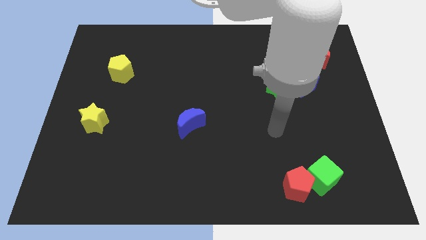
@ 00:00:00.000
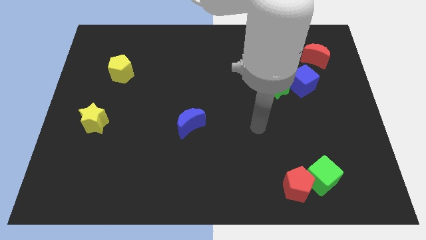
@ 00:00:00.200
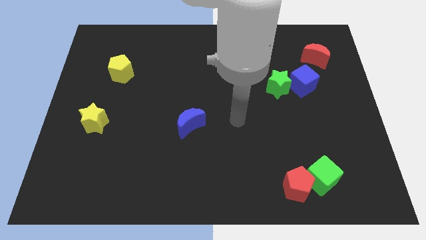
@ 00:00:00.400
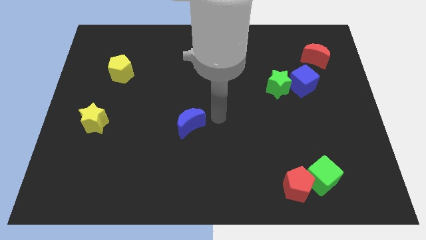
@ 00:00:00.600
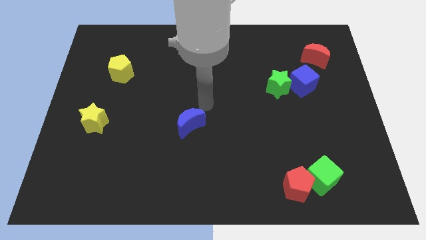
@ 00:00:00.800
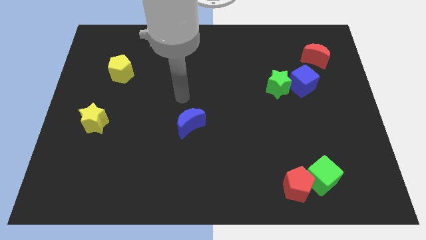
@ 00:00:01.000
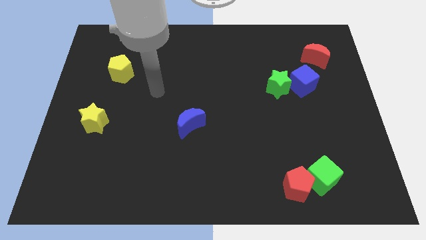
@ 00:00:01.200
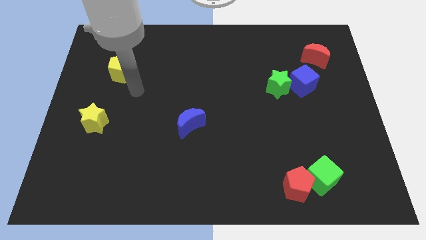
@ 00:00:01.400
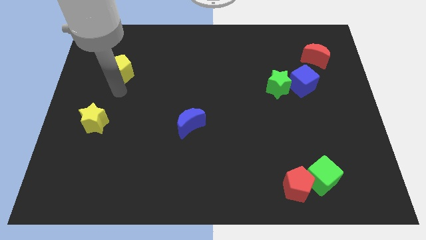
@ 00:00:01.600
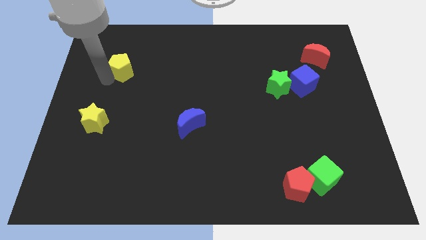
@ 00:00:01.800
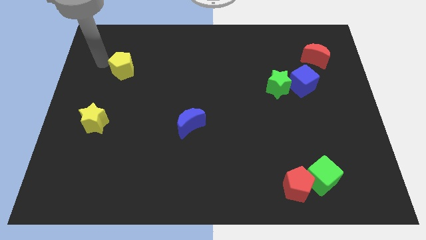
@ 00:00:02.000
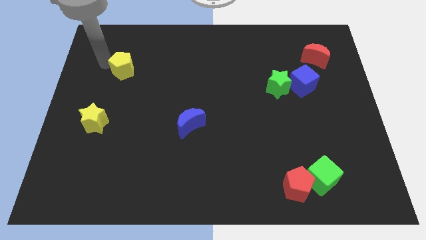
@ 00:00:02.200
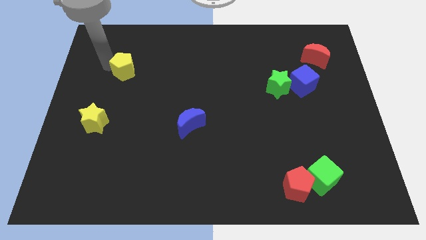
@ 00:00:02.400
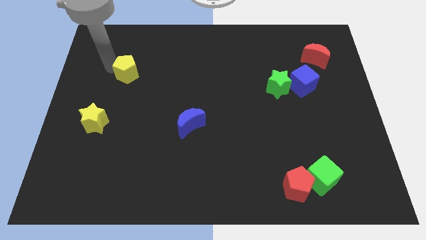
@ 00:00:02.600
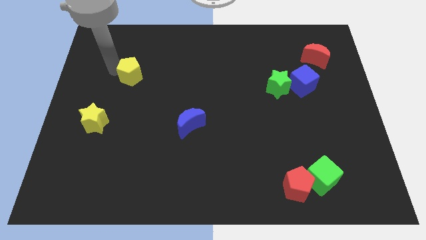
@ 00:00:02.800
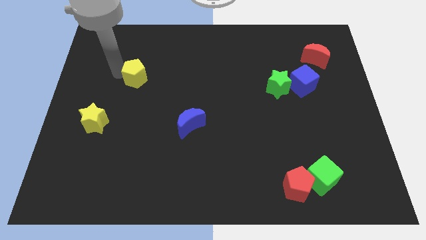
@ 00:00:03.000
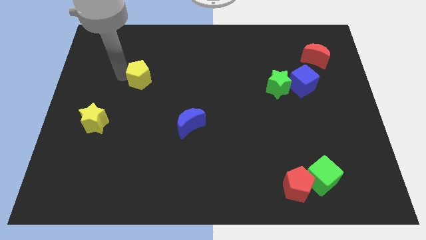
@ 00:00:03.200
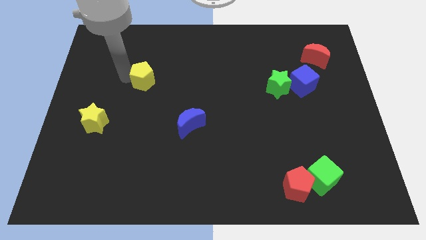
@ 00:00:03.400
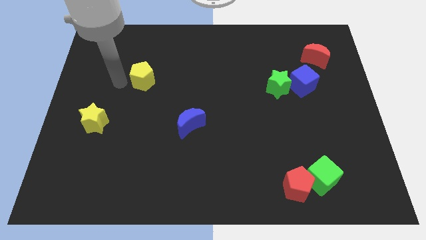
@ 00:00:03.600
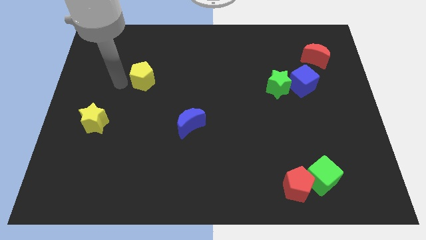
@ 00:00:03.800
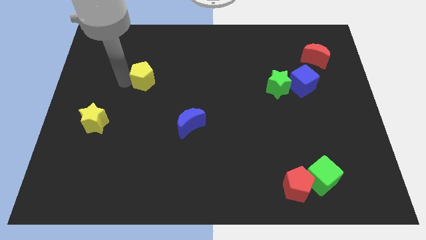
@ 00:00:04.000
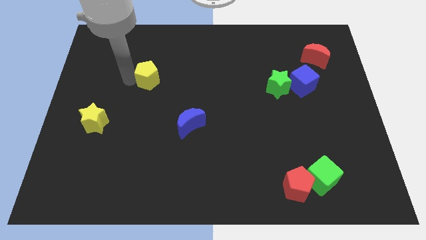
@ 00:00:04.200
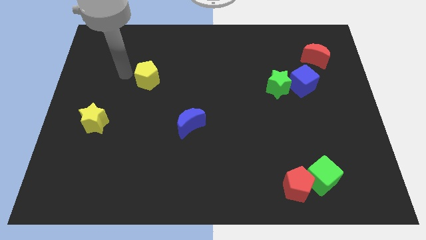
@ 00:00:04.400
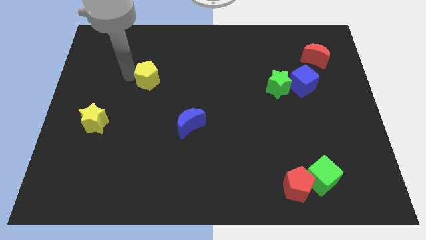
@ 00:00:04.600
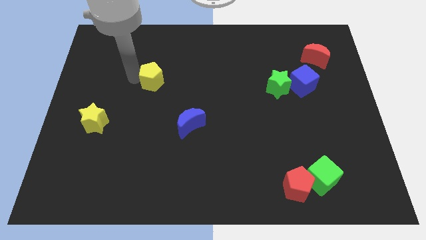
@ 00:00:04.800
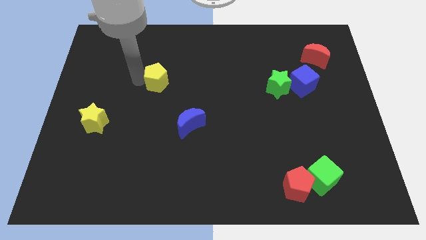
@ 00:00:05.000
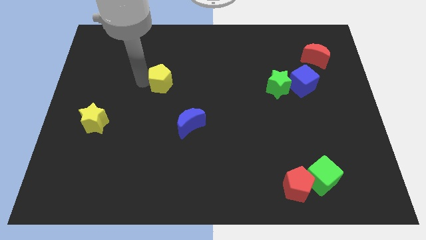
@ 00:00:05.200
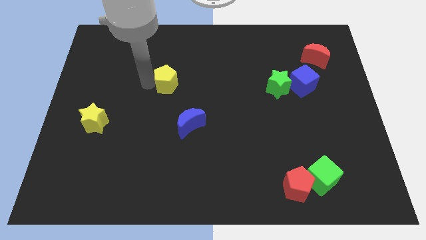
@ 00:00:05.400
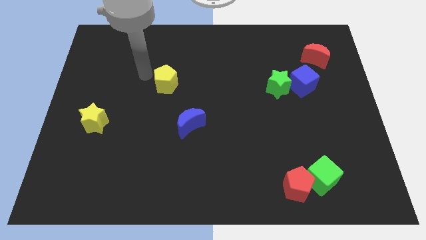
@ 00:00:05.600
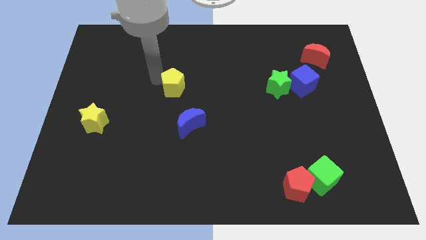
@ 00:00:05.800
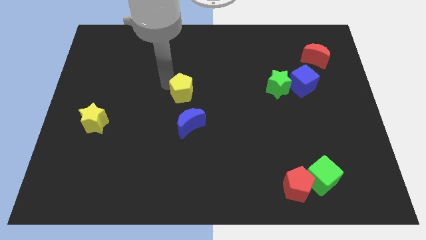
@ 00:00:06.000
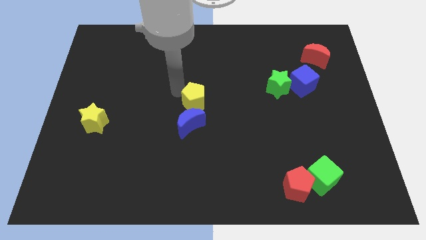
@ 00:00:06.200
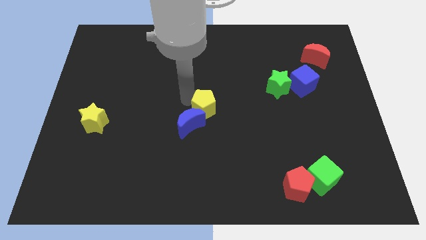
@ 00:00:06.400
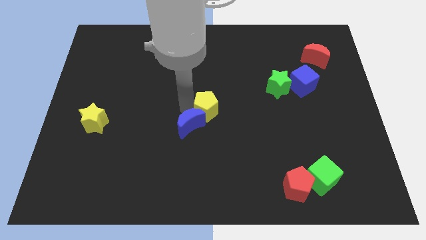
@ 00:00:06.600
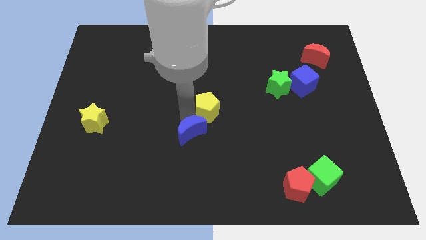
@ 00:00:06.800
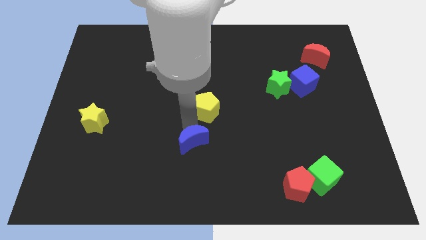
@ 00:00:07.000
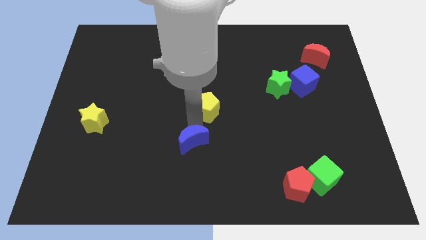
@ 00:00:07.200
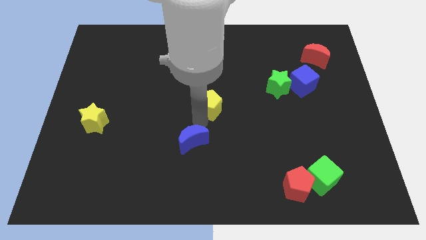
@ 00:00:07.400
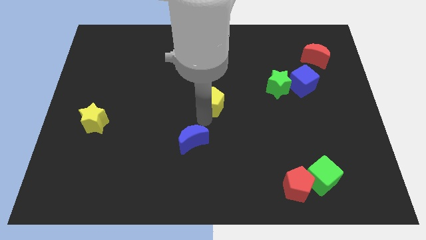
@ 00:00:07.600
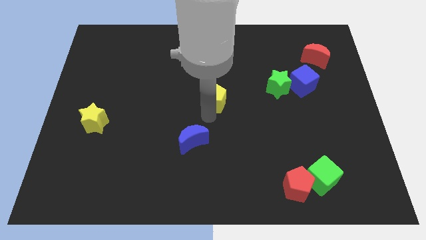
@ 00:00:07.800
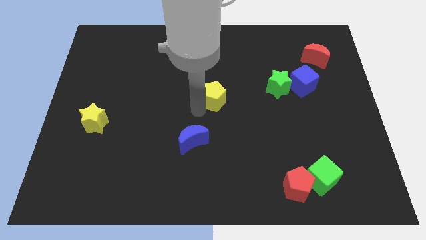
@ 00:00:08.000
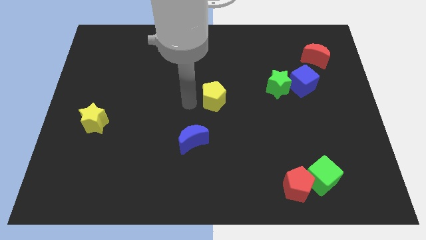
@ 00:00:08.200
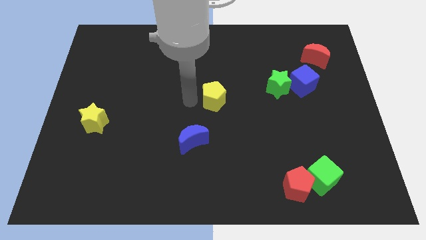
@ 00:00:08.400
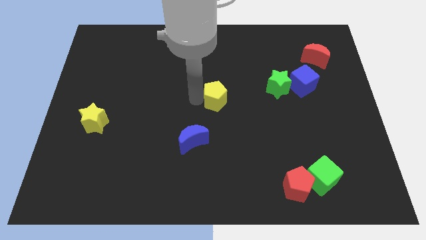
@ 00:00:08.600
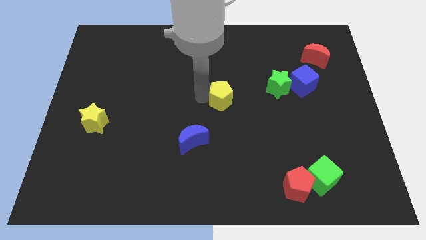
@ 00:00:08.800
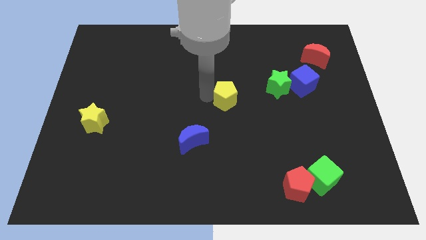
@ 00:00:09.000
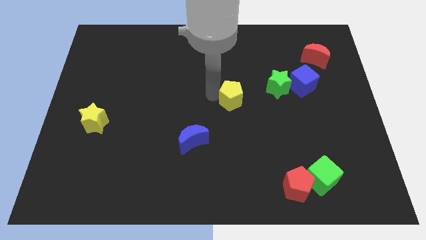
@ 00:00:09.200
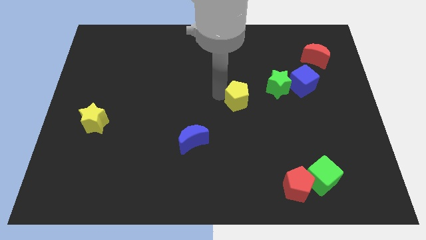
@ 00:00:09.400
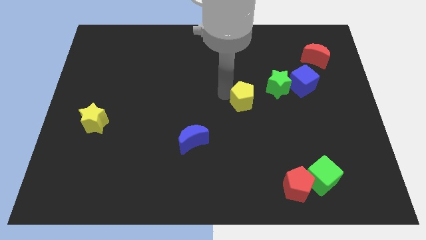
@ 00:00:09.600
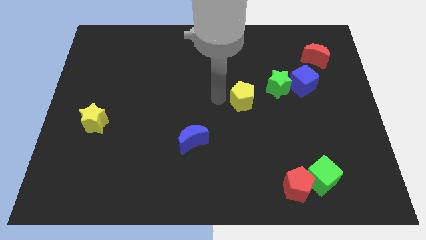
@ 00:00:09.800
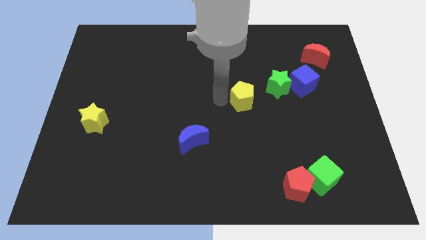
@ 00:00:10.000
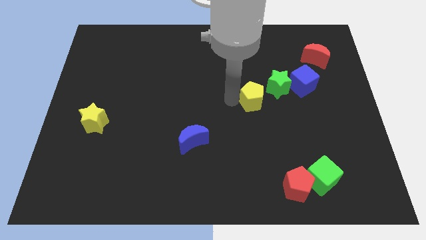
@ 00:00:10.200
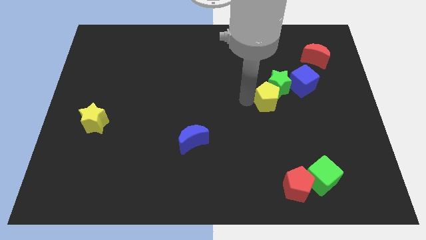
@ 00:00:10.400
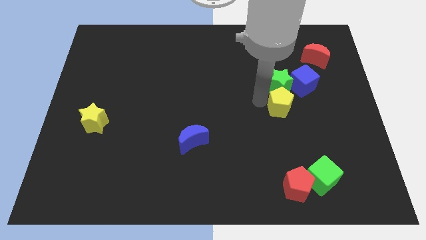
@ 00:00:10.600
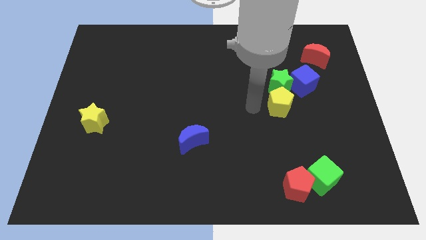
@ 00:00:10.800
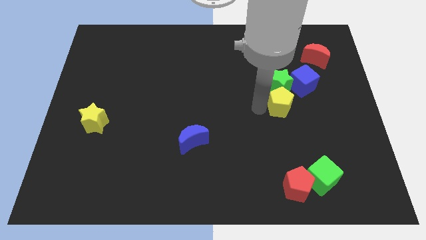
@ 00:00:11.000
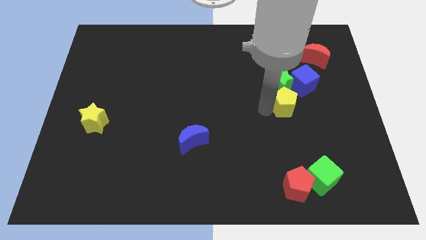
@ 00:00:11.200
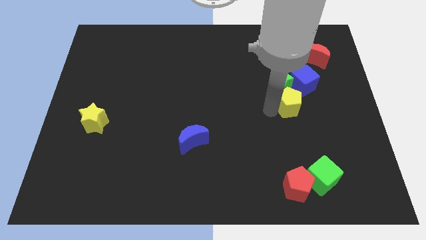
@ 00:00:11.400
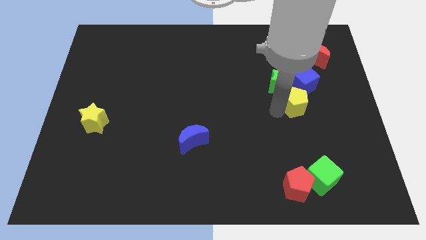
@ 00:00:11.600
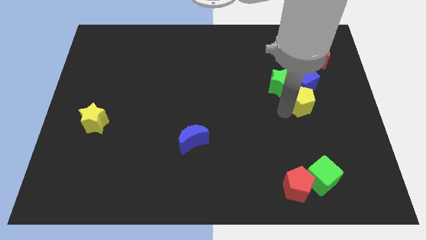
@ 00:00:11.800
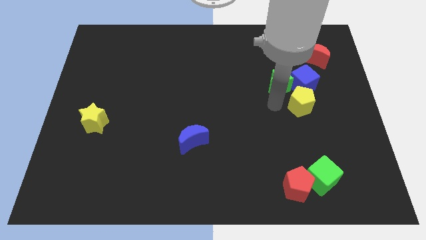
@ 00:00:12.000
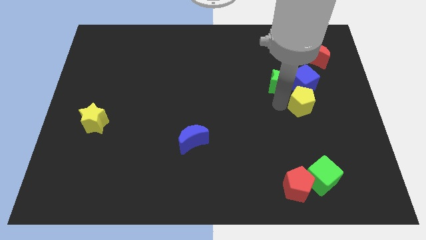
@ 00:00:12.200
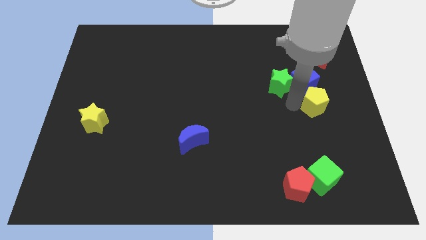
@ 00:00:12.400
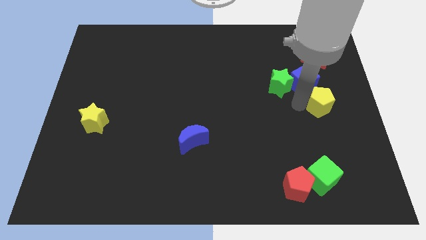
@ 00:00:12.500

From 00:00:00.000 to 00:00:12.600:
put the yellow pentagon to the right side
